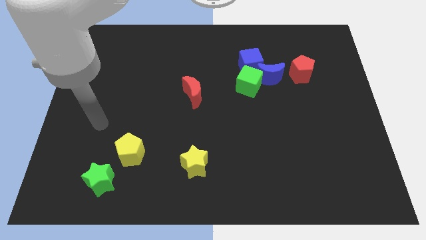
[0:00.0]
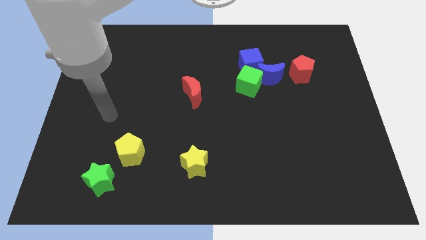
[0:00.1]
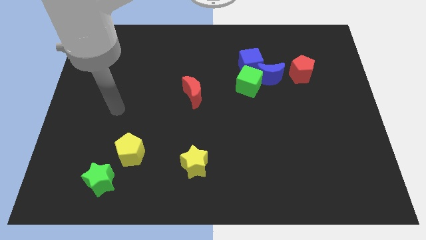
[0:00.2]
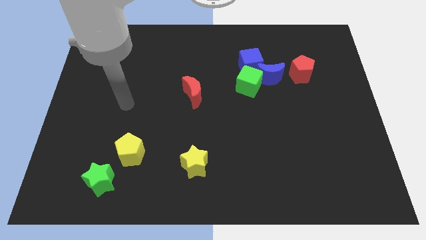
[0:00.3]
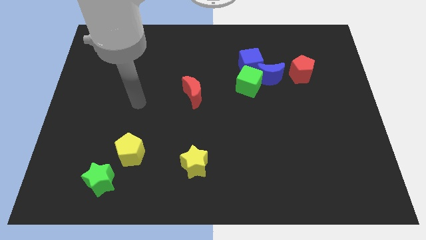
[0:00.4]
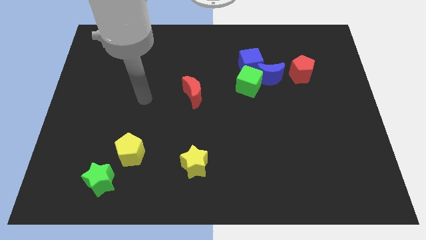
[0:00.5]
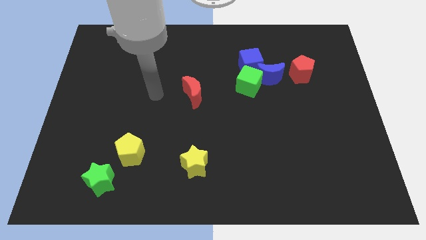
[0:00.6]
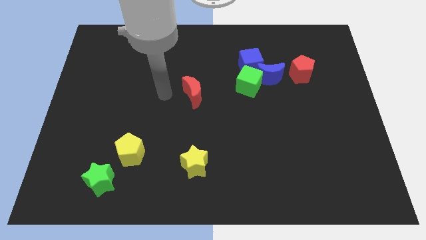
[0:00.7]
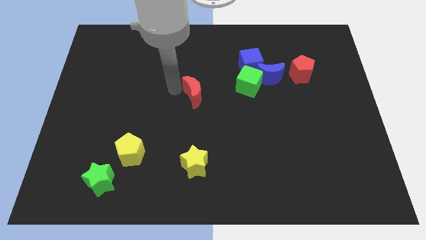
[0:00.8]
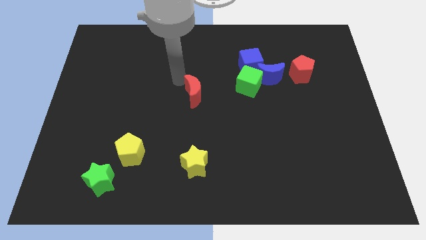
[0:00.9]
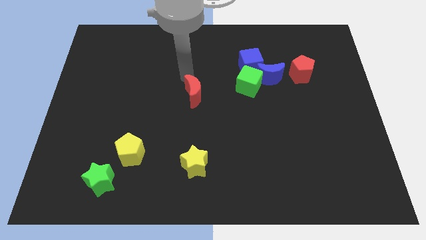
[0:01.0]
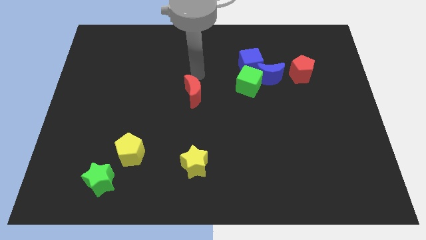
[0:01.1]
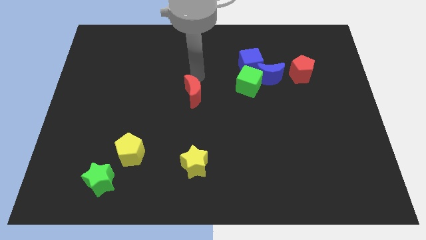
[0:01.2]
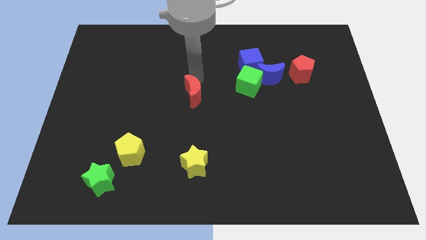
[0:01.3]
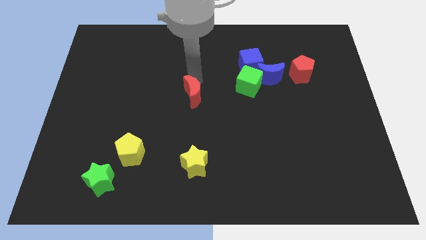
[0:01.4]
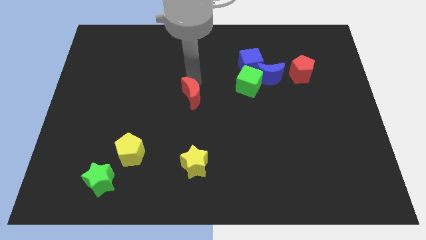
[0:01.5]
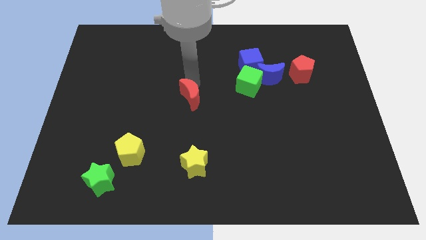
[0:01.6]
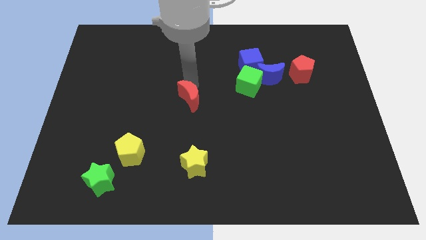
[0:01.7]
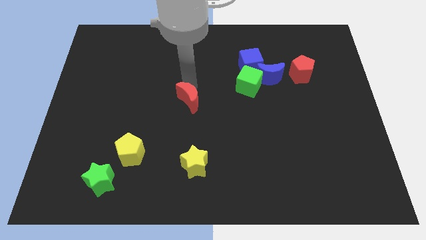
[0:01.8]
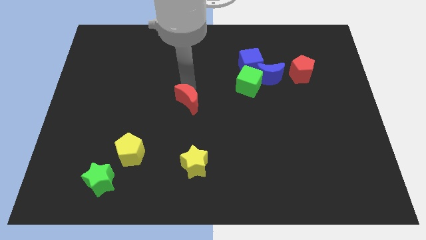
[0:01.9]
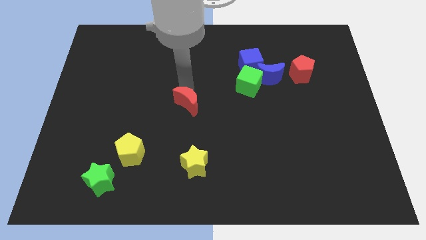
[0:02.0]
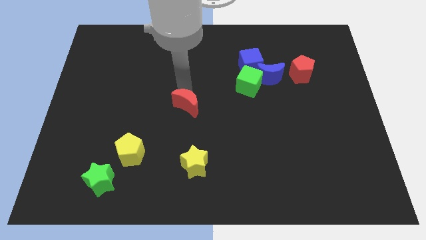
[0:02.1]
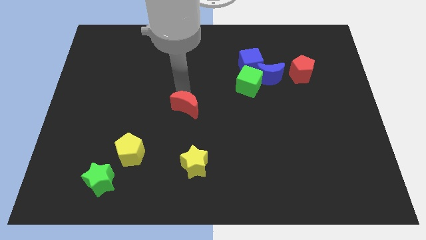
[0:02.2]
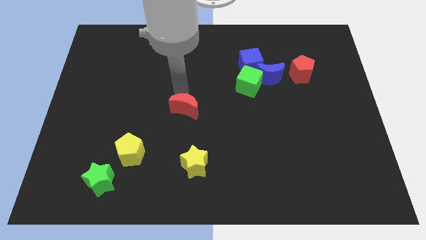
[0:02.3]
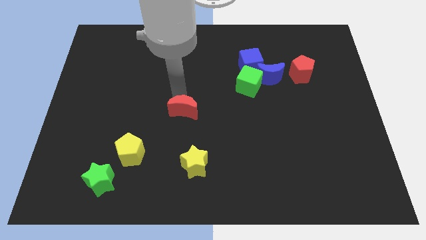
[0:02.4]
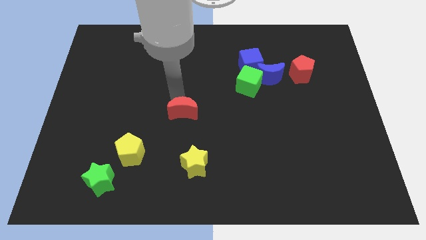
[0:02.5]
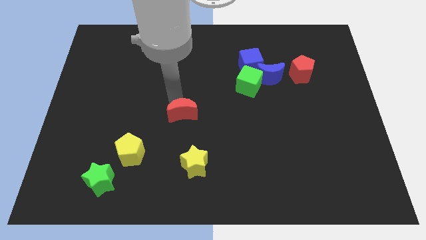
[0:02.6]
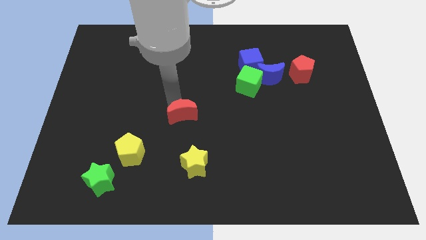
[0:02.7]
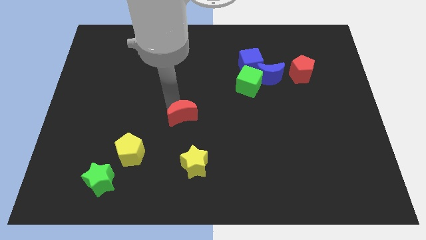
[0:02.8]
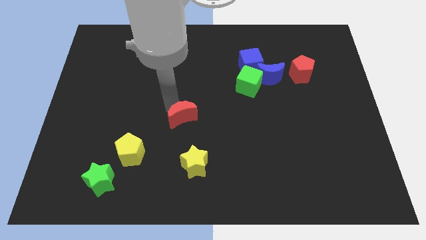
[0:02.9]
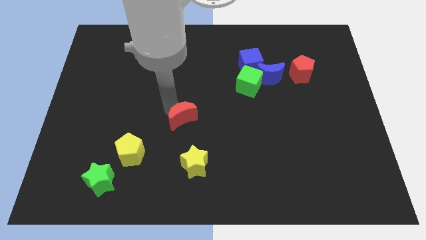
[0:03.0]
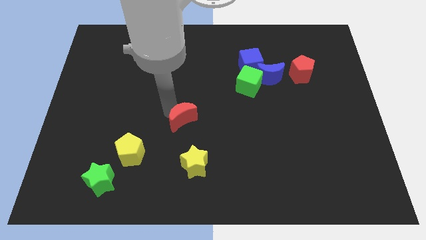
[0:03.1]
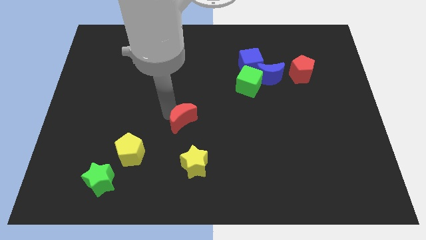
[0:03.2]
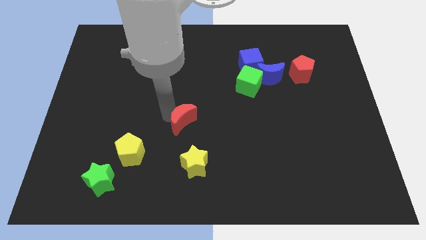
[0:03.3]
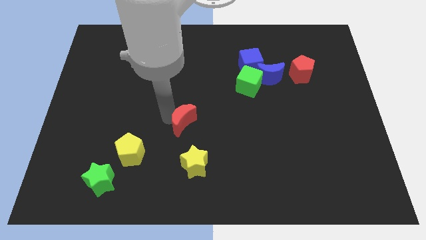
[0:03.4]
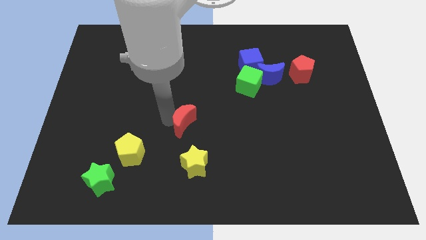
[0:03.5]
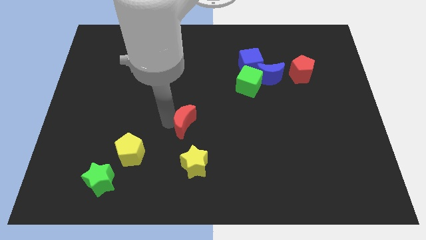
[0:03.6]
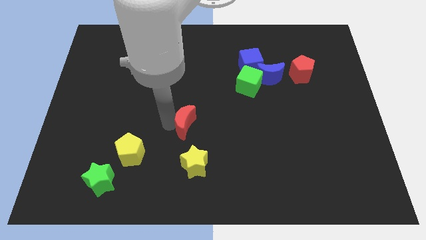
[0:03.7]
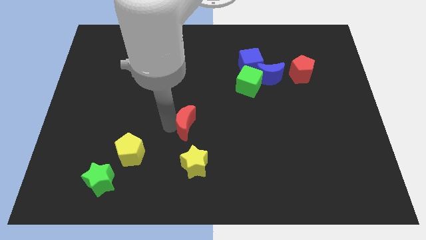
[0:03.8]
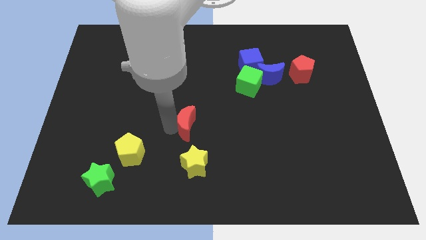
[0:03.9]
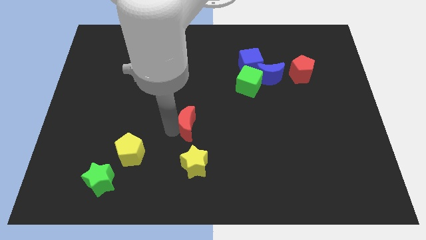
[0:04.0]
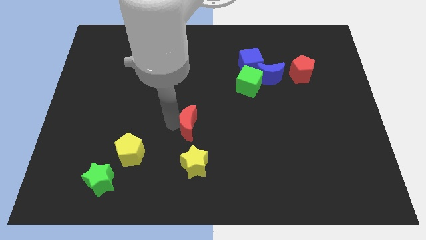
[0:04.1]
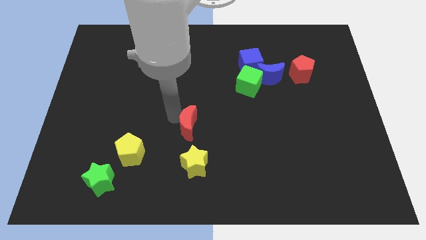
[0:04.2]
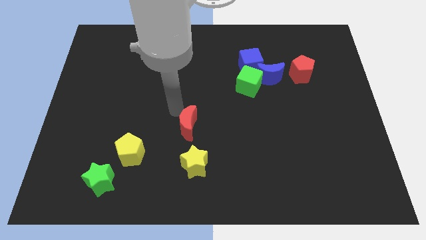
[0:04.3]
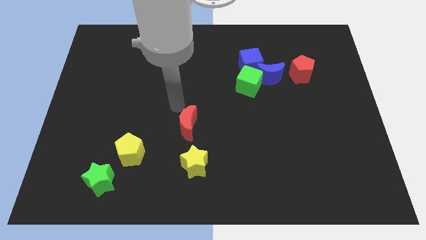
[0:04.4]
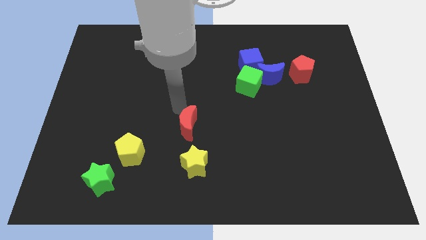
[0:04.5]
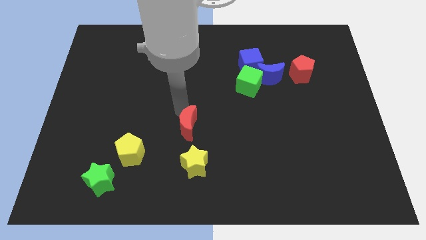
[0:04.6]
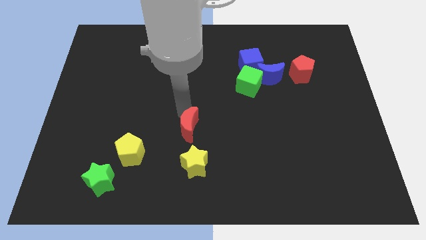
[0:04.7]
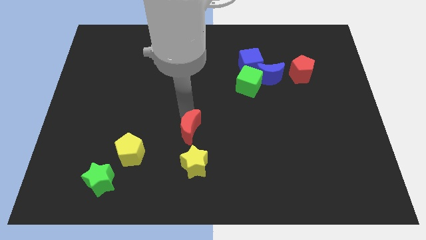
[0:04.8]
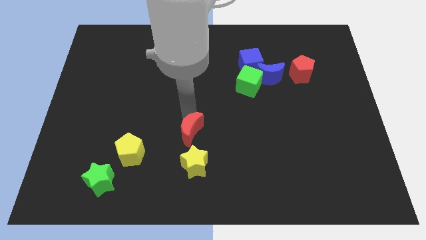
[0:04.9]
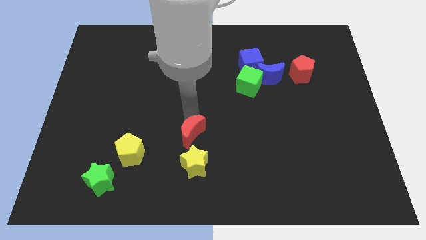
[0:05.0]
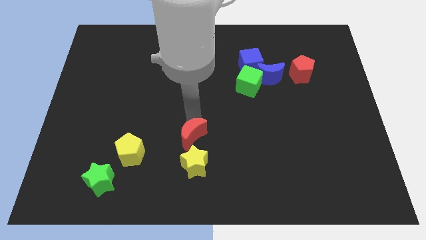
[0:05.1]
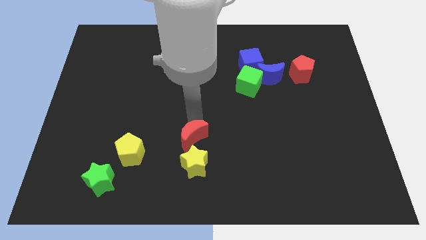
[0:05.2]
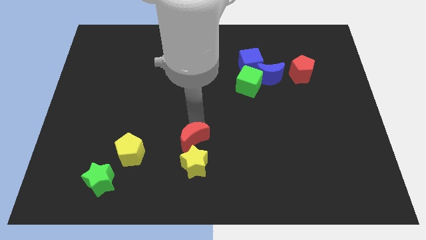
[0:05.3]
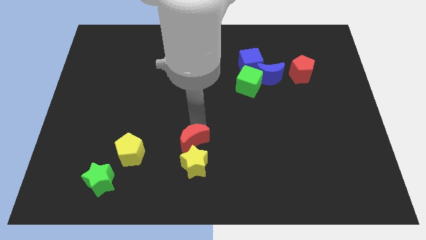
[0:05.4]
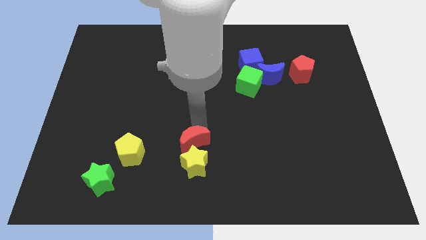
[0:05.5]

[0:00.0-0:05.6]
move the red moon to the yellow star

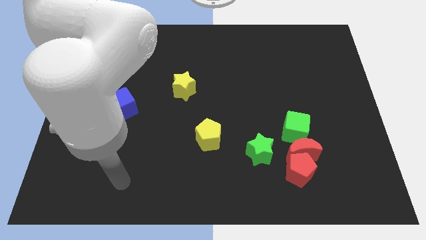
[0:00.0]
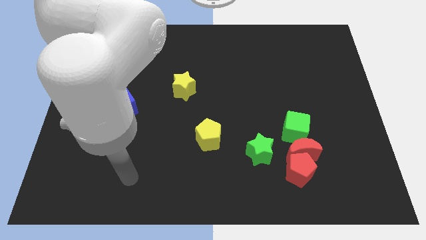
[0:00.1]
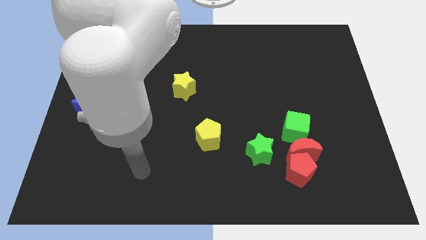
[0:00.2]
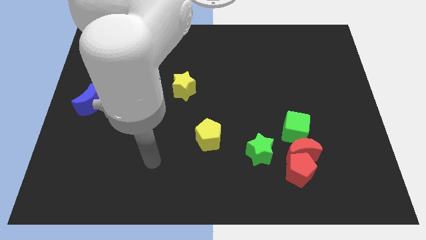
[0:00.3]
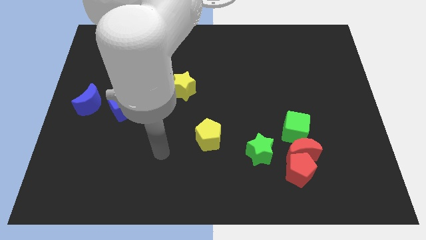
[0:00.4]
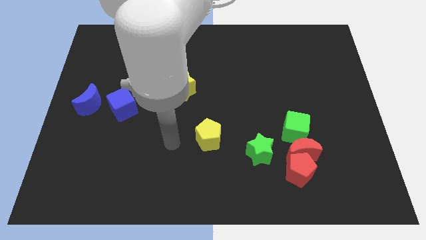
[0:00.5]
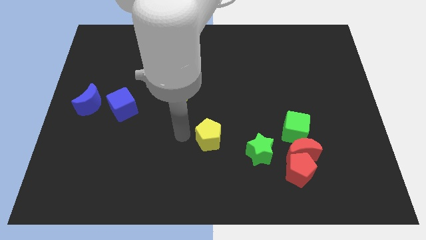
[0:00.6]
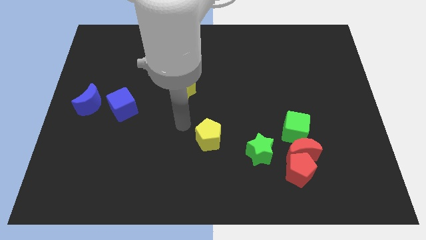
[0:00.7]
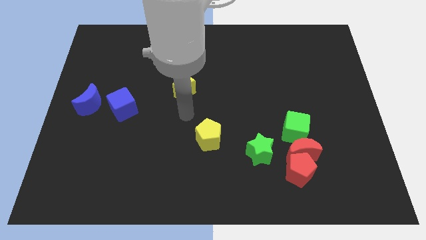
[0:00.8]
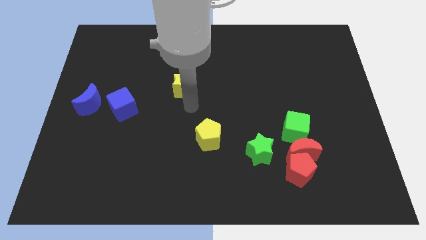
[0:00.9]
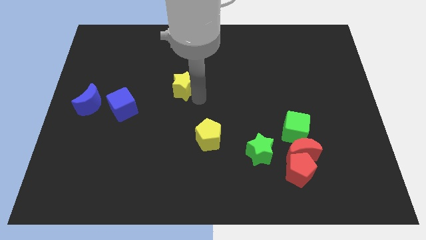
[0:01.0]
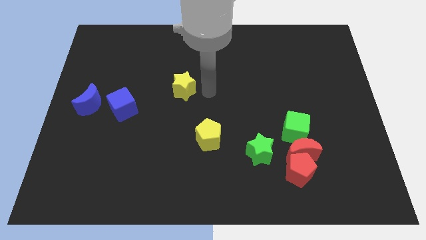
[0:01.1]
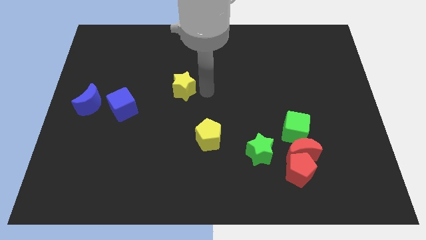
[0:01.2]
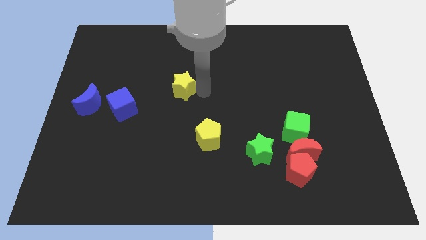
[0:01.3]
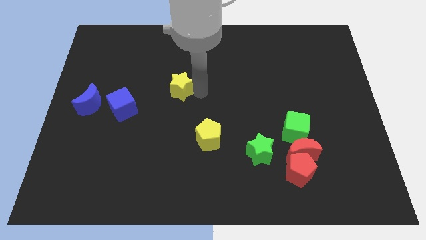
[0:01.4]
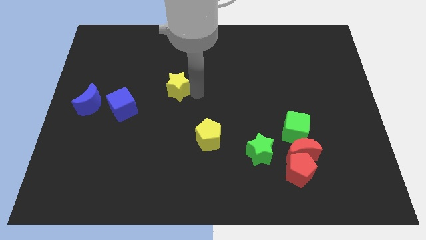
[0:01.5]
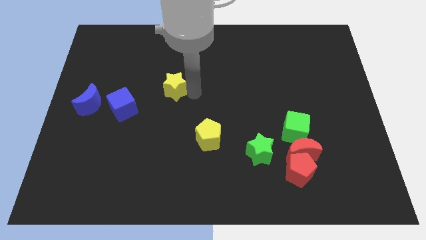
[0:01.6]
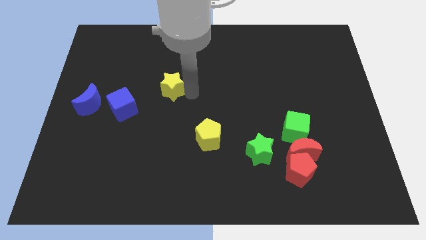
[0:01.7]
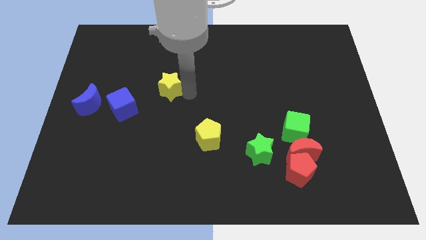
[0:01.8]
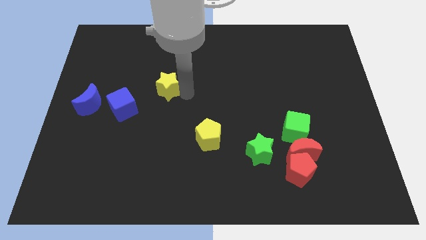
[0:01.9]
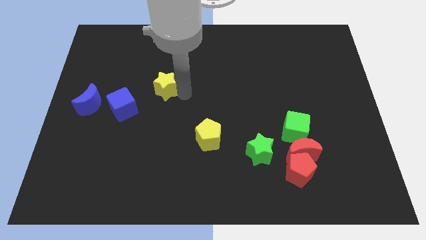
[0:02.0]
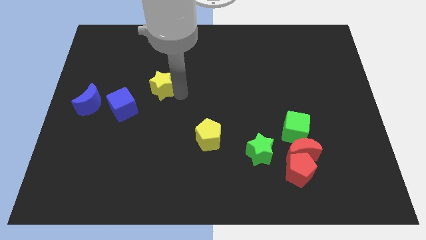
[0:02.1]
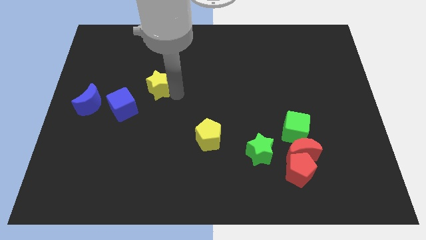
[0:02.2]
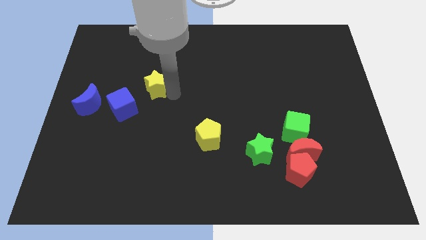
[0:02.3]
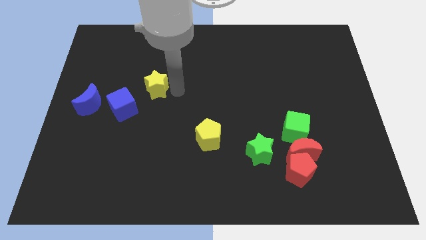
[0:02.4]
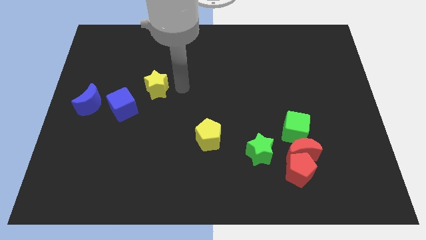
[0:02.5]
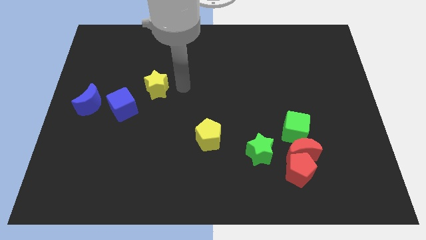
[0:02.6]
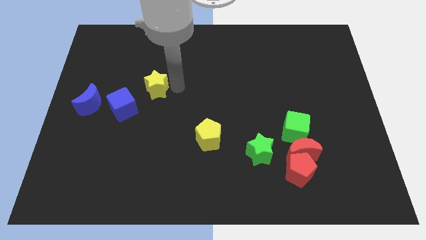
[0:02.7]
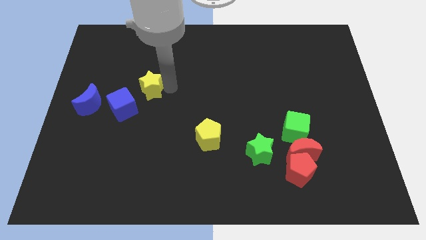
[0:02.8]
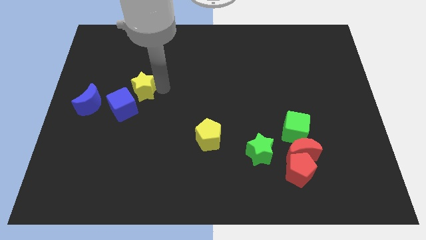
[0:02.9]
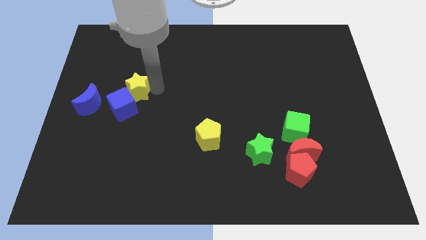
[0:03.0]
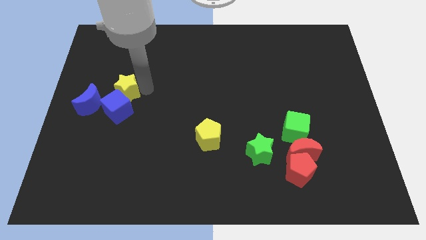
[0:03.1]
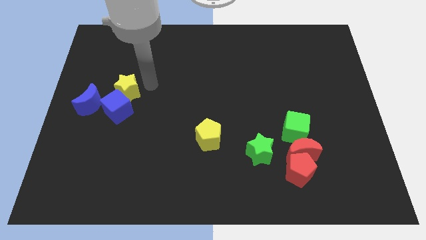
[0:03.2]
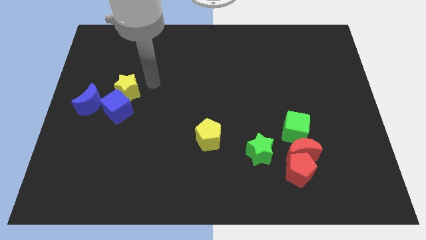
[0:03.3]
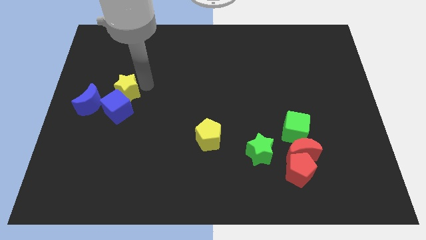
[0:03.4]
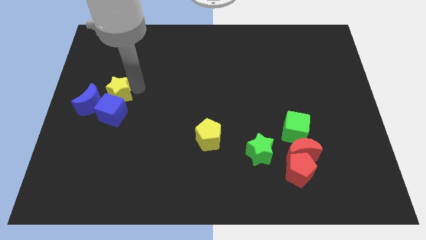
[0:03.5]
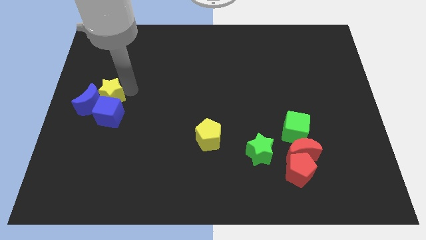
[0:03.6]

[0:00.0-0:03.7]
push the yellow star to the blue moon
